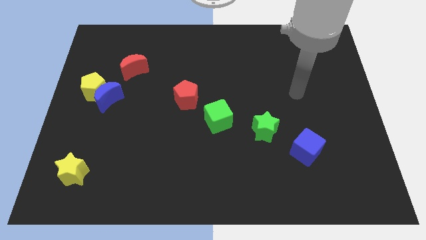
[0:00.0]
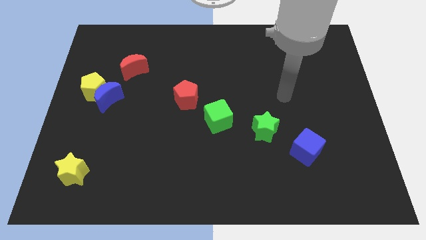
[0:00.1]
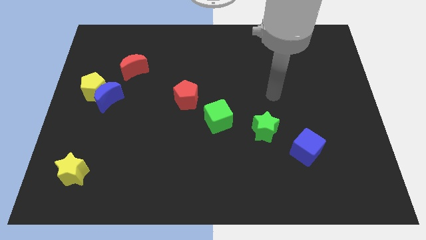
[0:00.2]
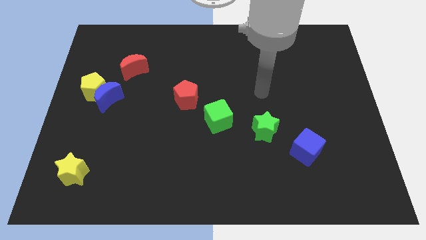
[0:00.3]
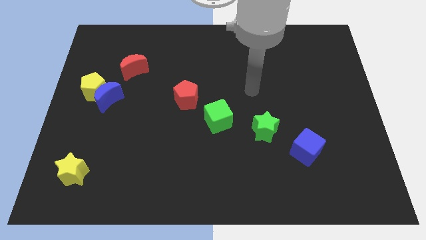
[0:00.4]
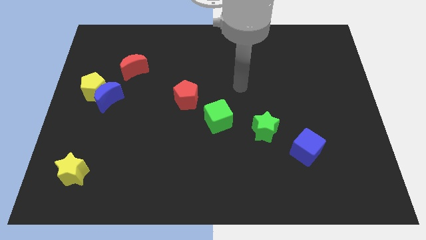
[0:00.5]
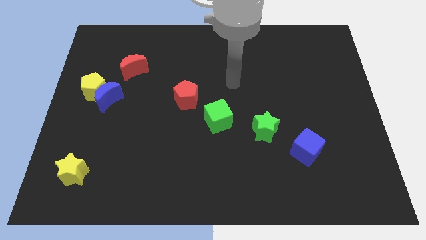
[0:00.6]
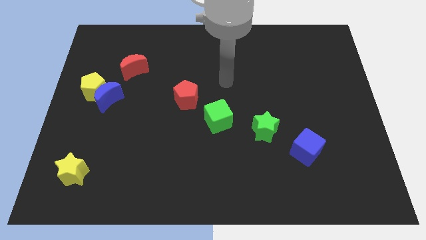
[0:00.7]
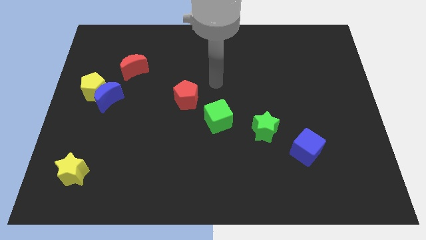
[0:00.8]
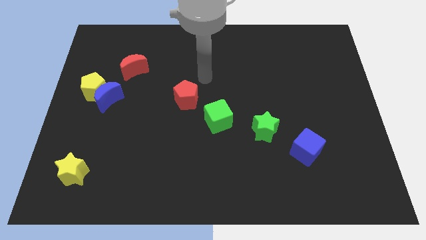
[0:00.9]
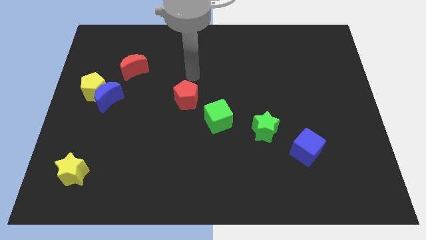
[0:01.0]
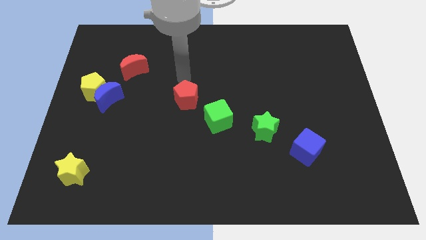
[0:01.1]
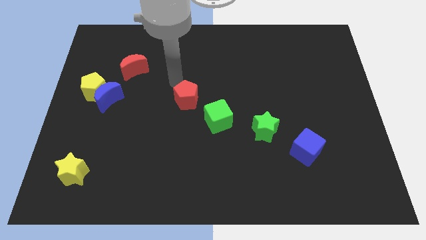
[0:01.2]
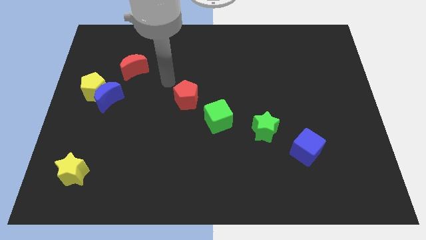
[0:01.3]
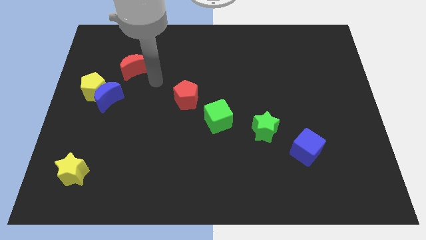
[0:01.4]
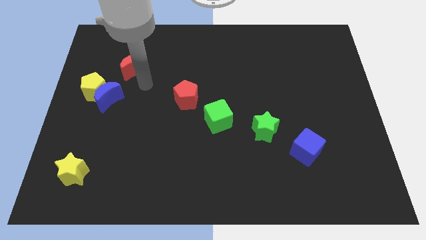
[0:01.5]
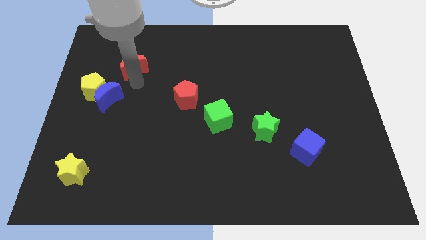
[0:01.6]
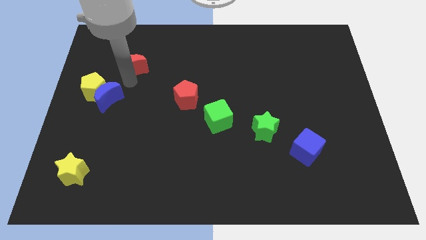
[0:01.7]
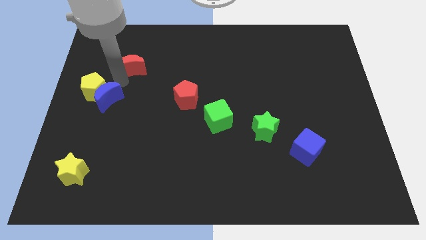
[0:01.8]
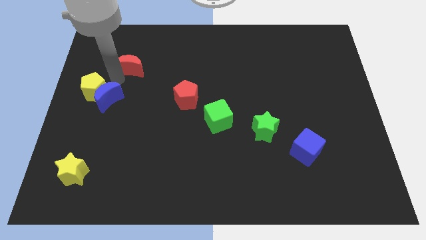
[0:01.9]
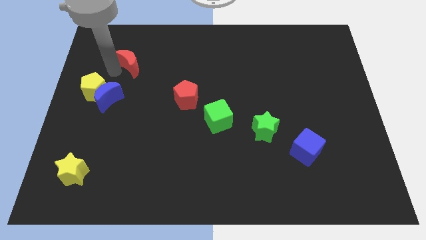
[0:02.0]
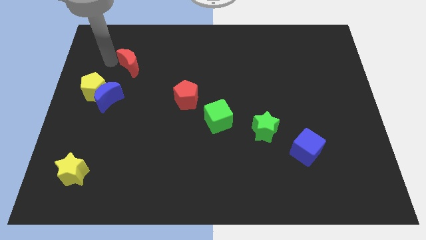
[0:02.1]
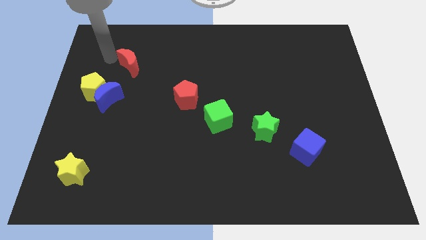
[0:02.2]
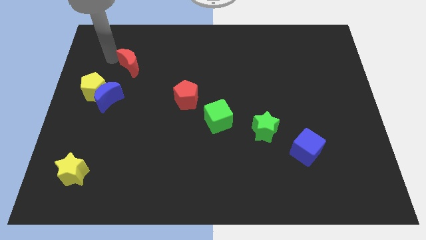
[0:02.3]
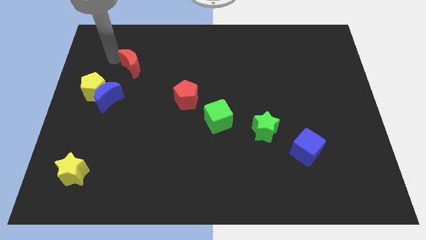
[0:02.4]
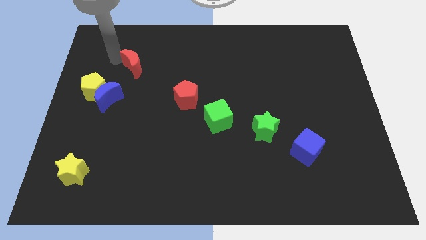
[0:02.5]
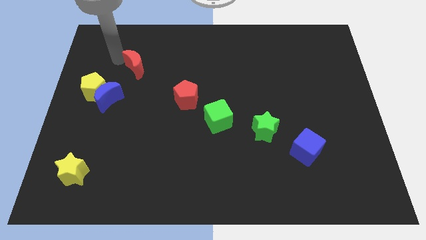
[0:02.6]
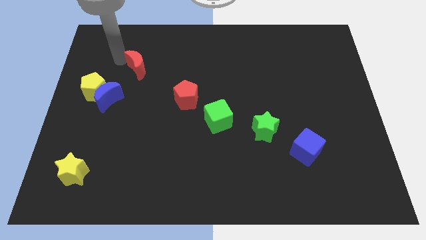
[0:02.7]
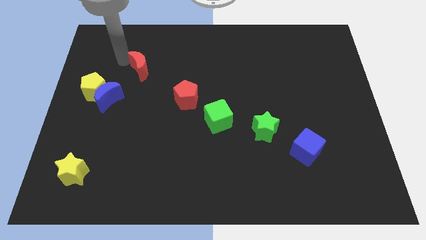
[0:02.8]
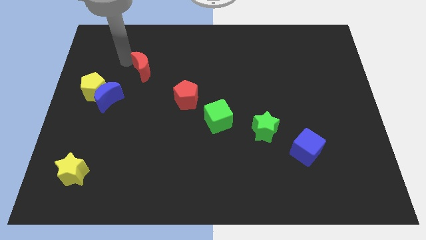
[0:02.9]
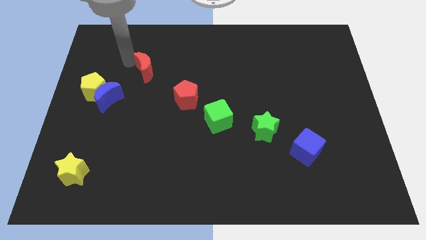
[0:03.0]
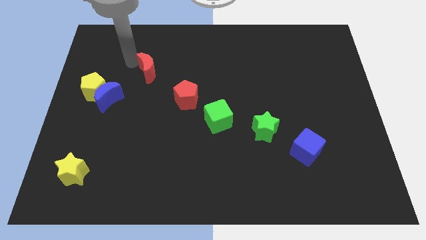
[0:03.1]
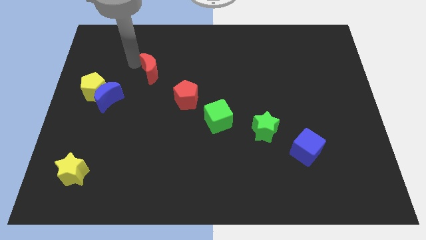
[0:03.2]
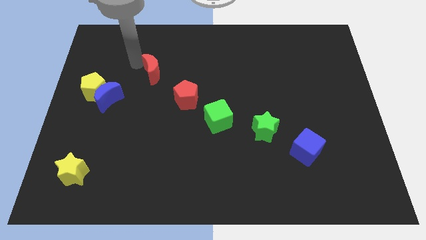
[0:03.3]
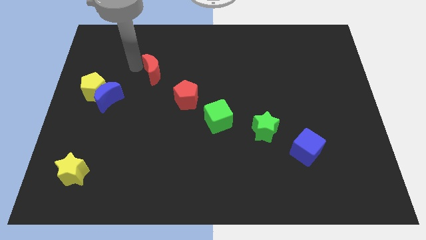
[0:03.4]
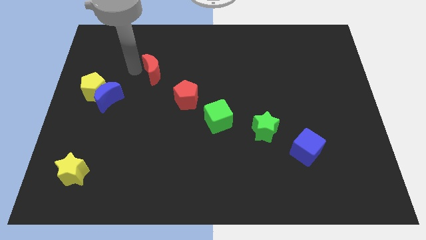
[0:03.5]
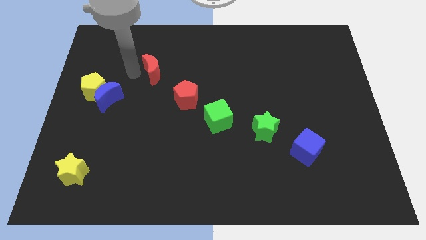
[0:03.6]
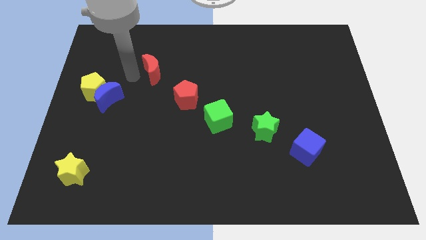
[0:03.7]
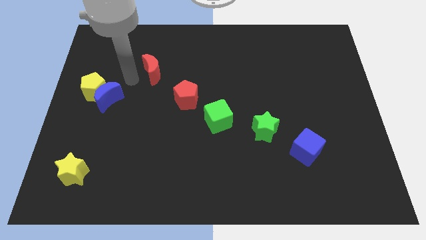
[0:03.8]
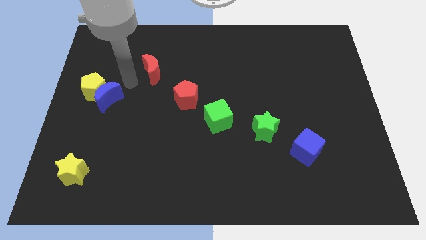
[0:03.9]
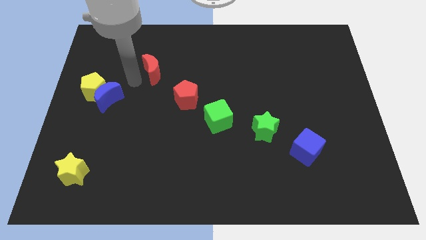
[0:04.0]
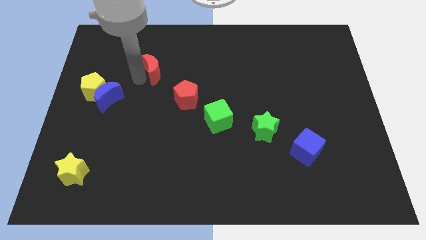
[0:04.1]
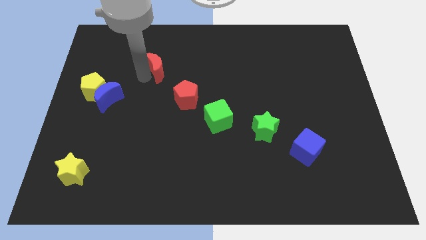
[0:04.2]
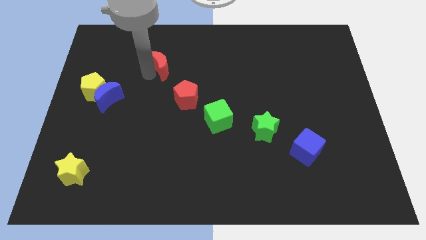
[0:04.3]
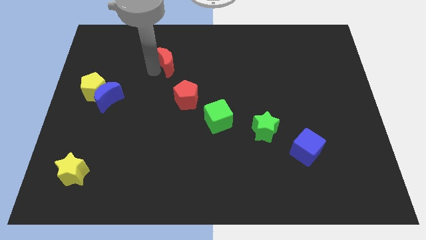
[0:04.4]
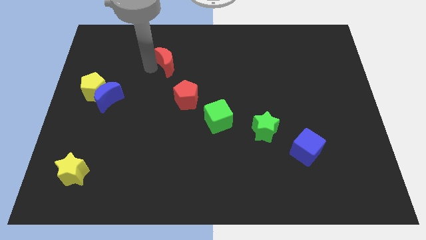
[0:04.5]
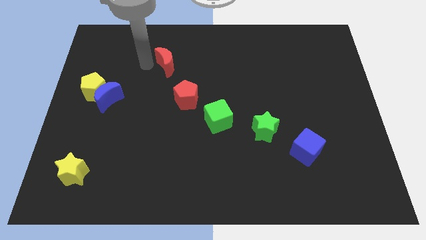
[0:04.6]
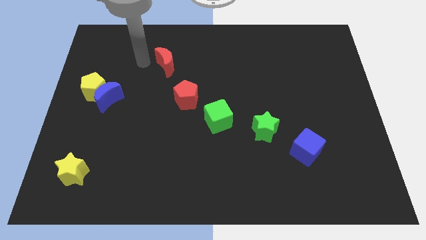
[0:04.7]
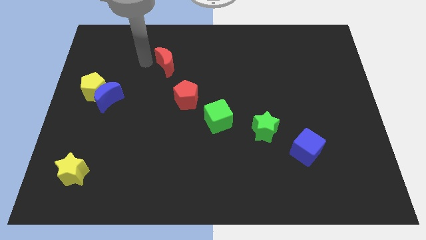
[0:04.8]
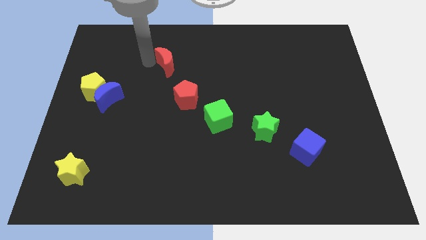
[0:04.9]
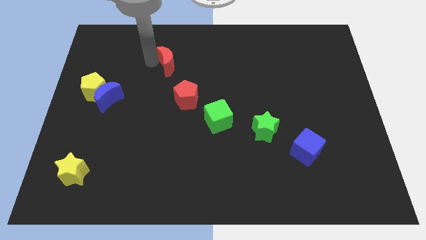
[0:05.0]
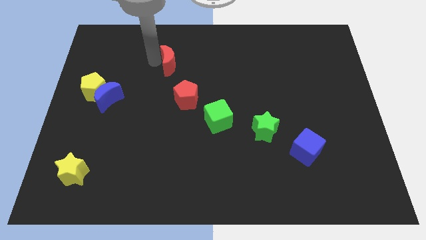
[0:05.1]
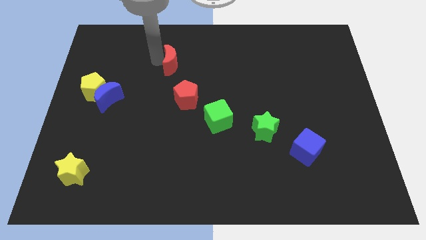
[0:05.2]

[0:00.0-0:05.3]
put the red moon to the top side of the red pentagon

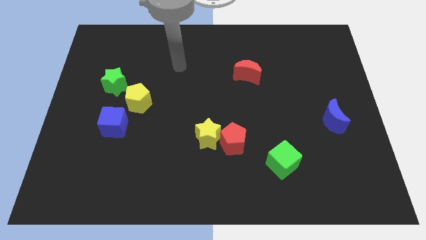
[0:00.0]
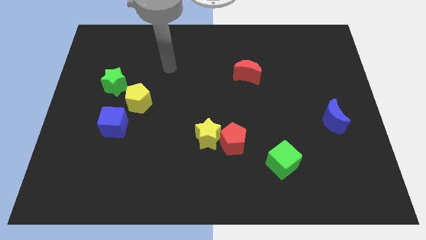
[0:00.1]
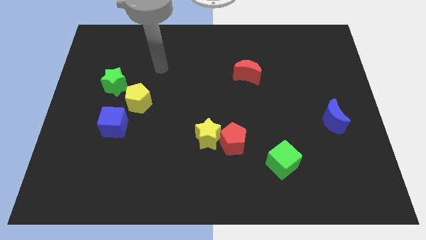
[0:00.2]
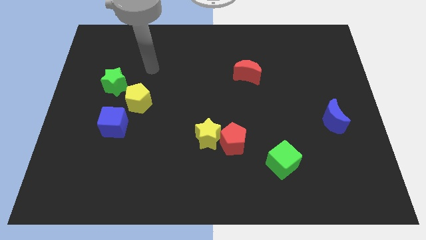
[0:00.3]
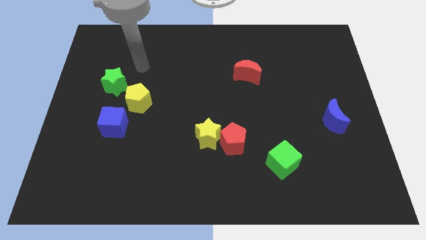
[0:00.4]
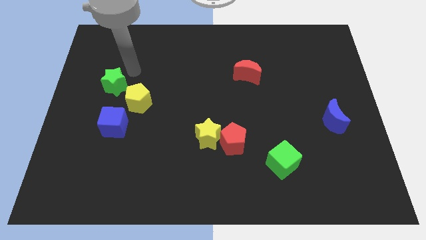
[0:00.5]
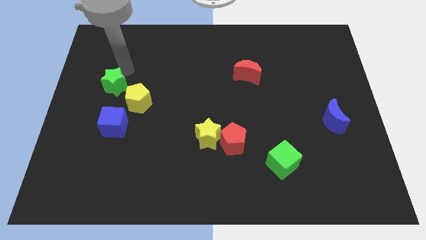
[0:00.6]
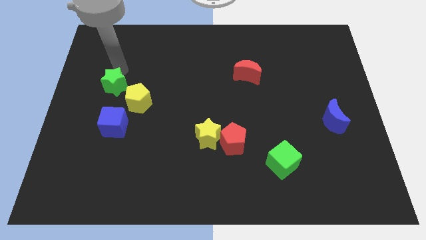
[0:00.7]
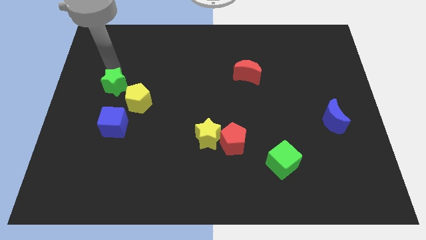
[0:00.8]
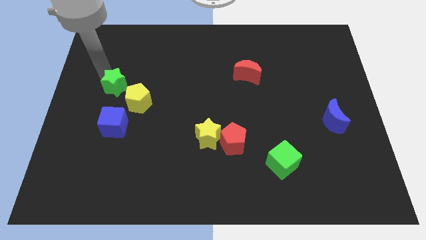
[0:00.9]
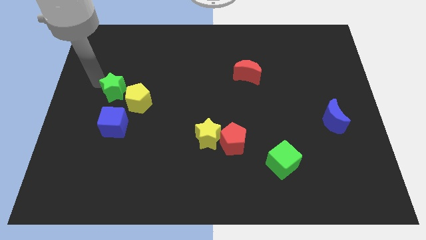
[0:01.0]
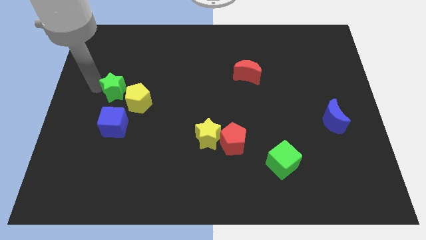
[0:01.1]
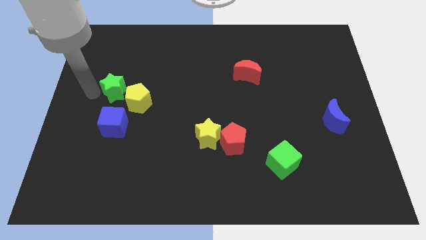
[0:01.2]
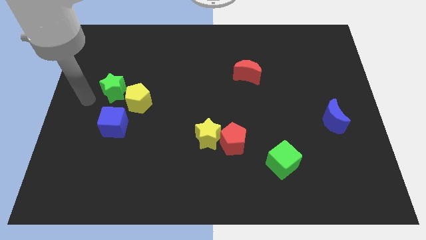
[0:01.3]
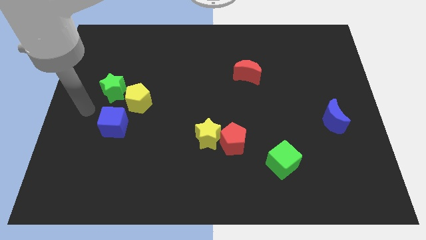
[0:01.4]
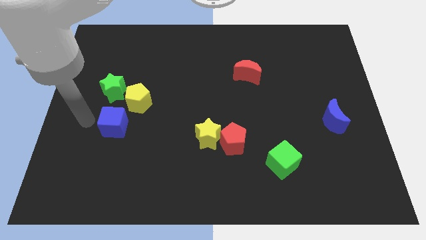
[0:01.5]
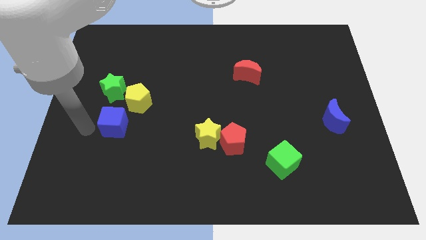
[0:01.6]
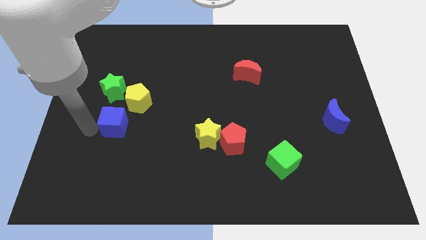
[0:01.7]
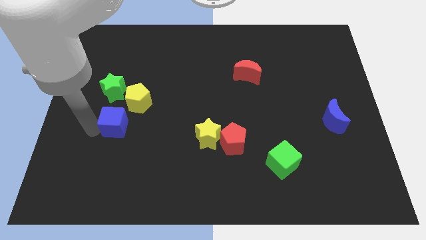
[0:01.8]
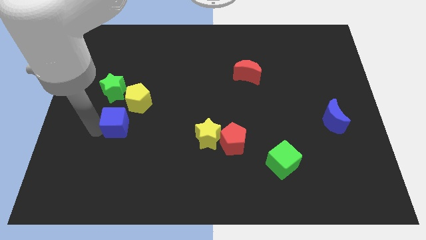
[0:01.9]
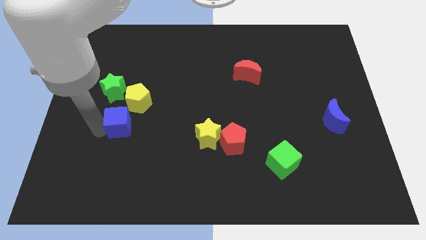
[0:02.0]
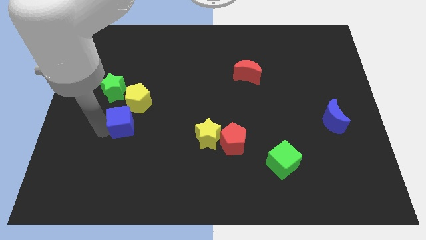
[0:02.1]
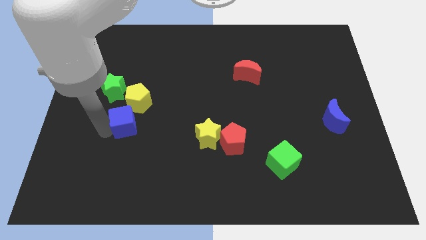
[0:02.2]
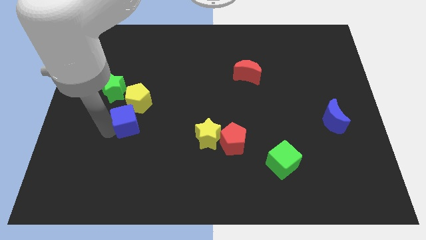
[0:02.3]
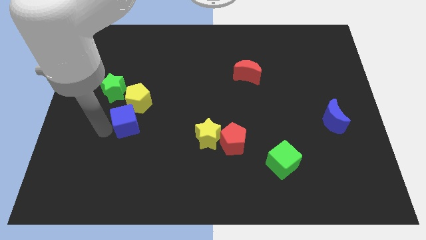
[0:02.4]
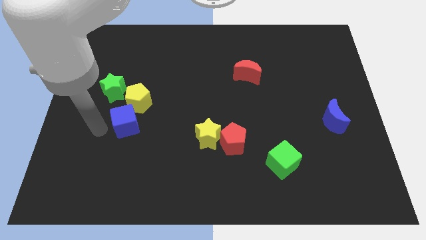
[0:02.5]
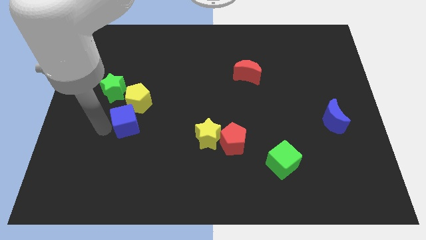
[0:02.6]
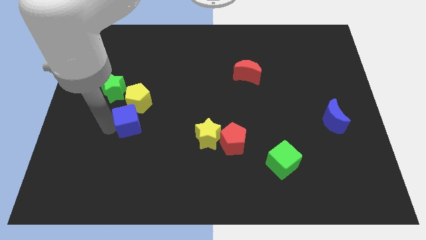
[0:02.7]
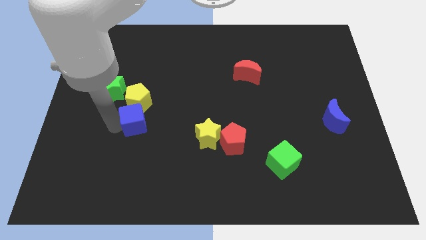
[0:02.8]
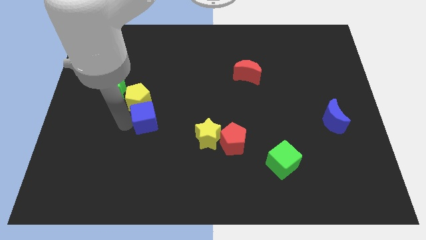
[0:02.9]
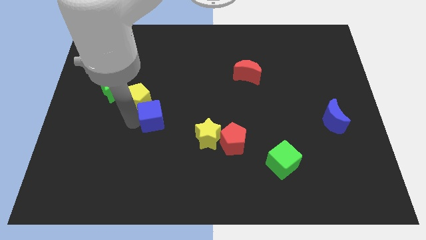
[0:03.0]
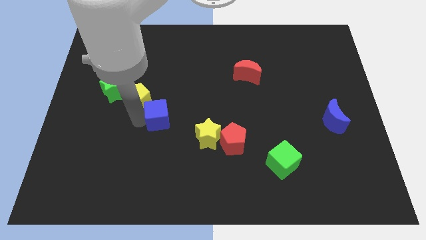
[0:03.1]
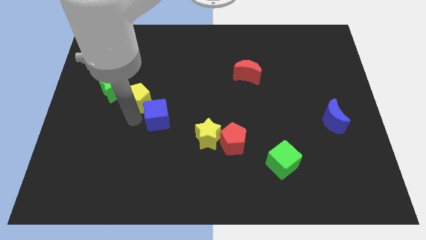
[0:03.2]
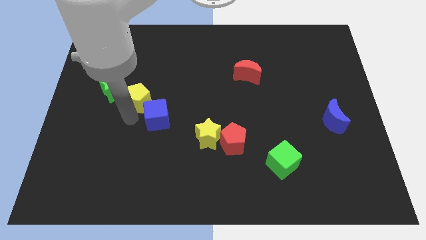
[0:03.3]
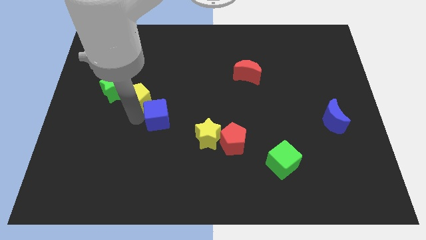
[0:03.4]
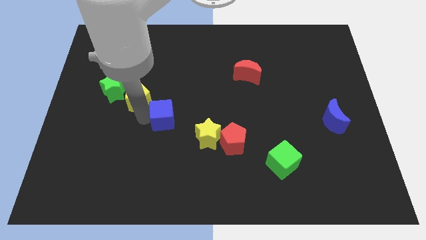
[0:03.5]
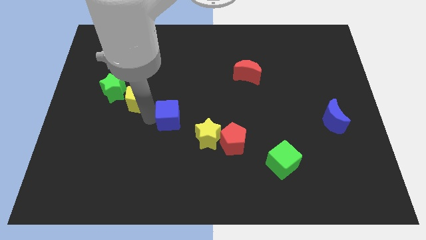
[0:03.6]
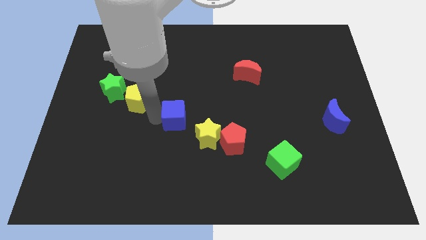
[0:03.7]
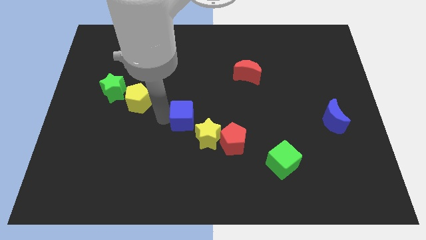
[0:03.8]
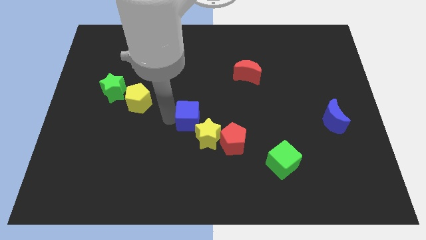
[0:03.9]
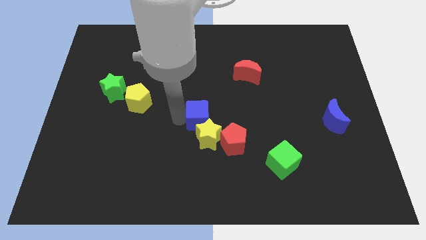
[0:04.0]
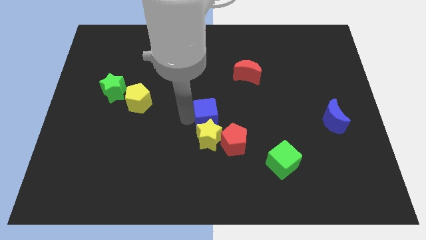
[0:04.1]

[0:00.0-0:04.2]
slide the blue cube to the top right side of the yellow star
